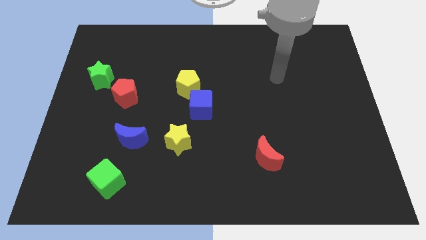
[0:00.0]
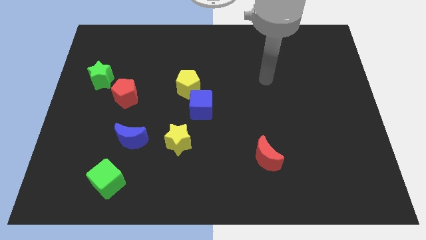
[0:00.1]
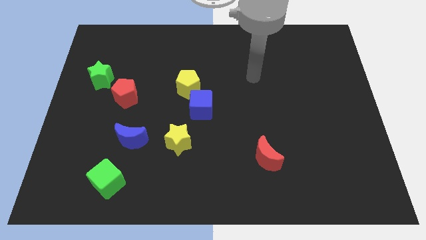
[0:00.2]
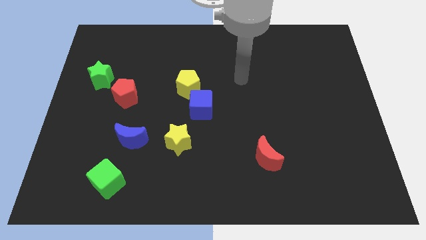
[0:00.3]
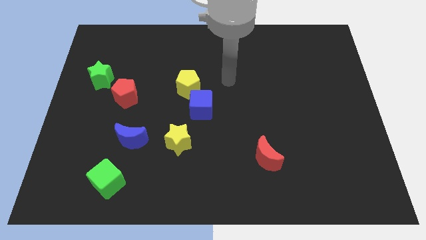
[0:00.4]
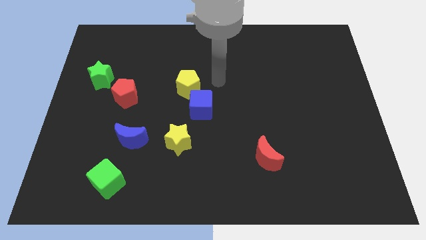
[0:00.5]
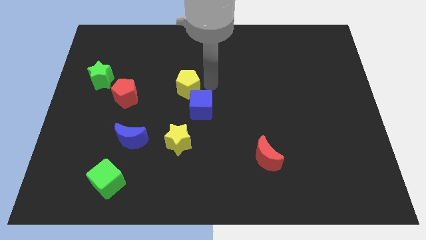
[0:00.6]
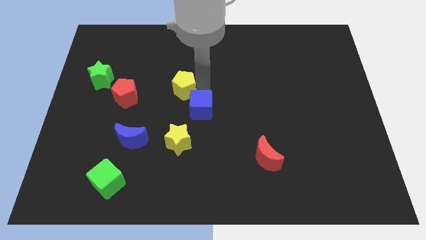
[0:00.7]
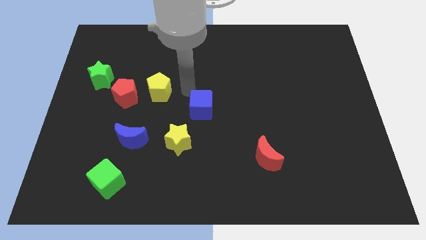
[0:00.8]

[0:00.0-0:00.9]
move the blue cube away from the yellow pentagon

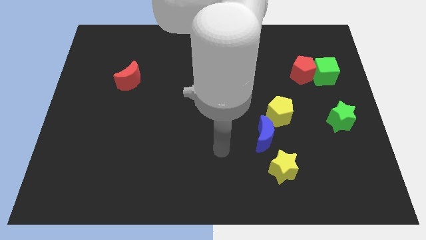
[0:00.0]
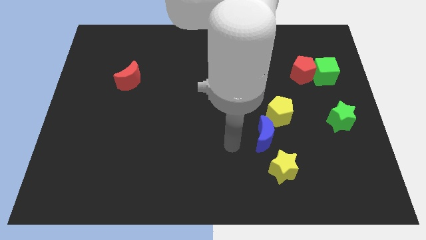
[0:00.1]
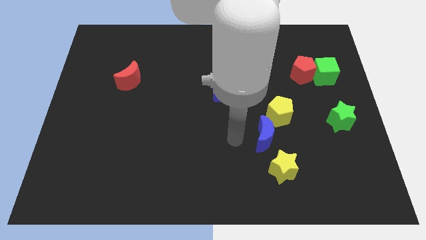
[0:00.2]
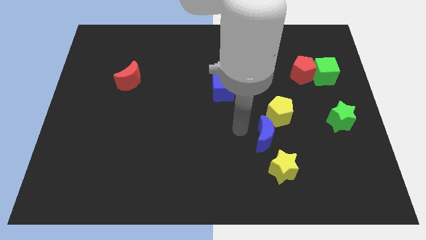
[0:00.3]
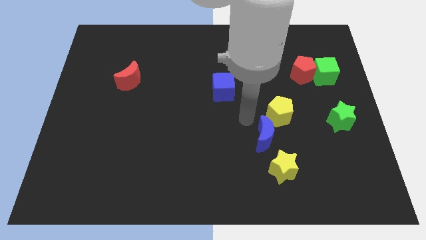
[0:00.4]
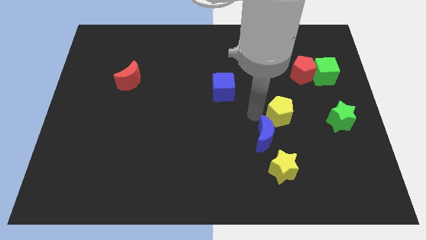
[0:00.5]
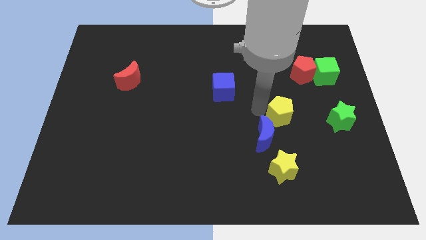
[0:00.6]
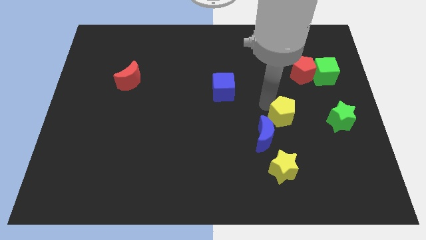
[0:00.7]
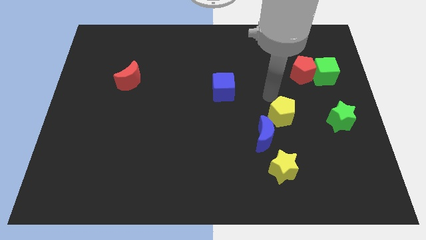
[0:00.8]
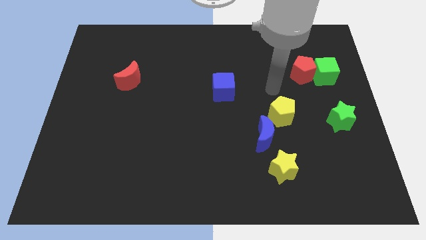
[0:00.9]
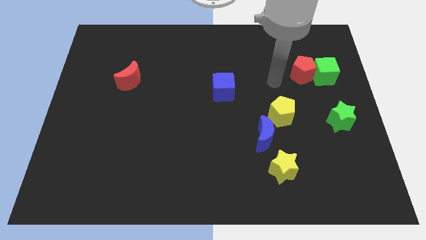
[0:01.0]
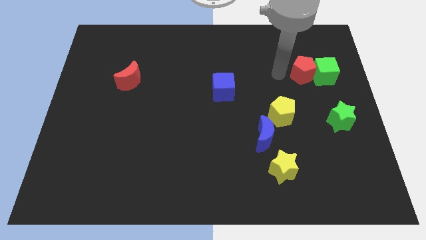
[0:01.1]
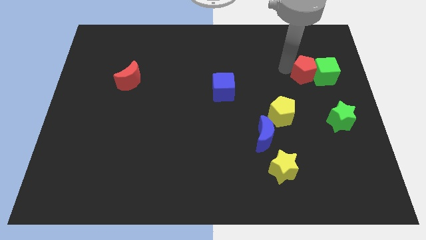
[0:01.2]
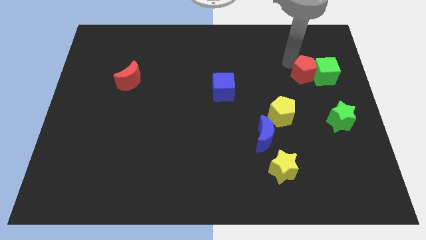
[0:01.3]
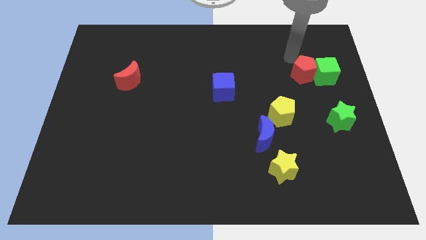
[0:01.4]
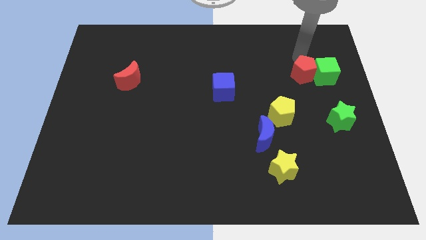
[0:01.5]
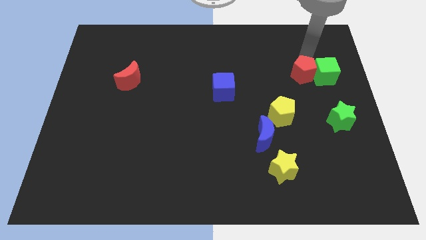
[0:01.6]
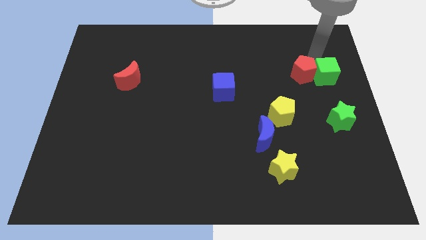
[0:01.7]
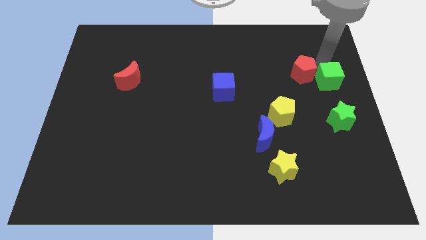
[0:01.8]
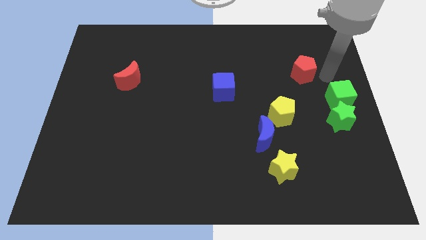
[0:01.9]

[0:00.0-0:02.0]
separate the red pentagon from the green cube

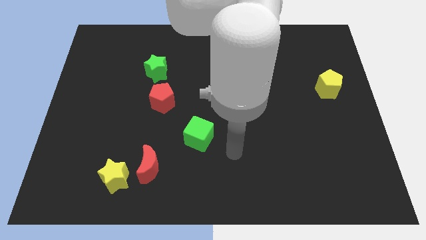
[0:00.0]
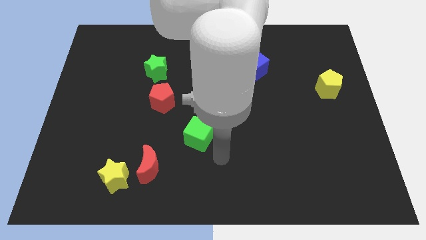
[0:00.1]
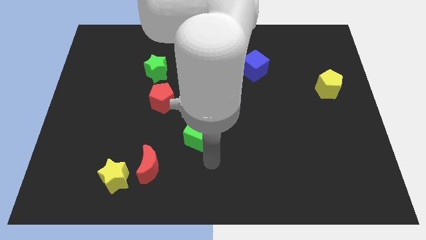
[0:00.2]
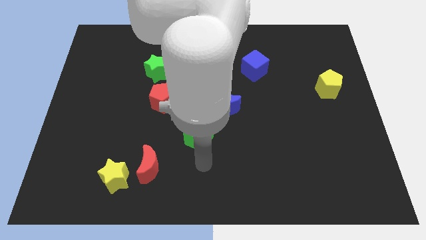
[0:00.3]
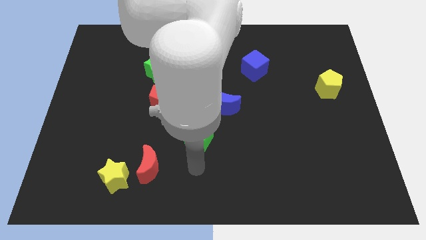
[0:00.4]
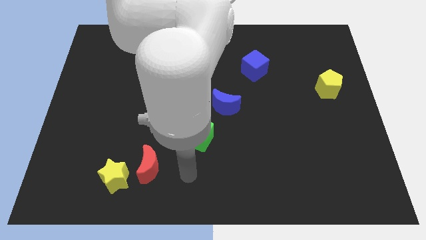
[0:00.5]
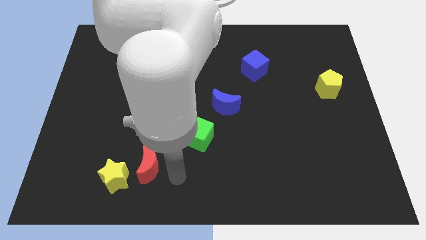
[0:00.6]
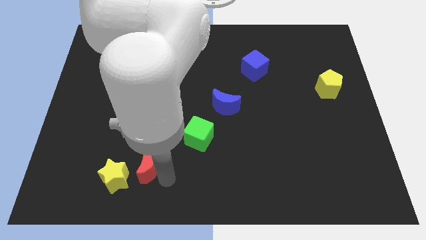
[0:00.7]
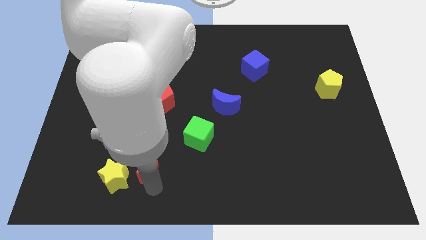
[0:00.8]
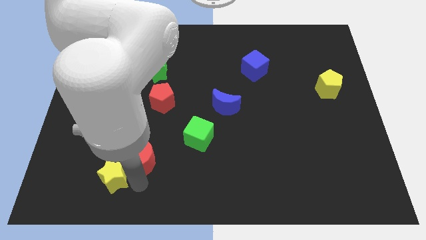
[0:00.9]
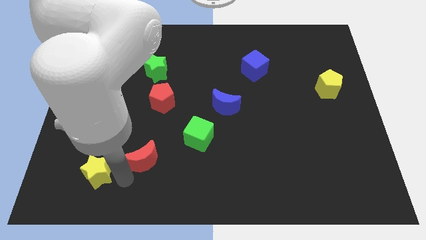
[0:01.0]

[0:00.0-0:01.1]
move the red moon away from the yellow star

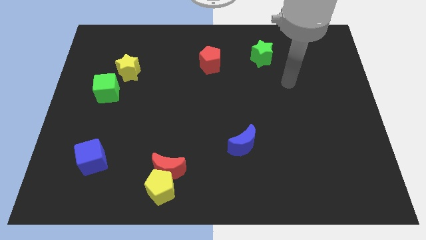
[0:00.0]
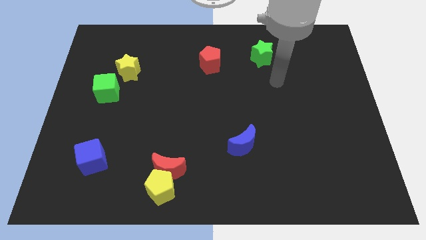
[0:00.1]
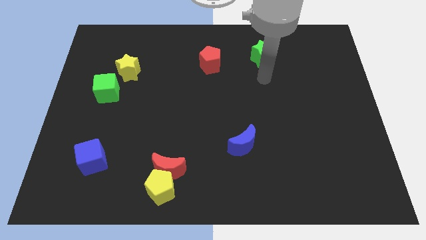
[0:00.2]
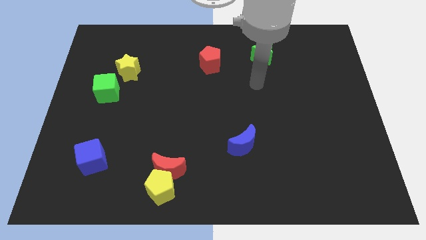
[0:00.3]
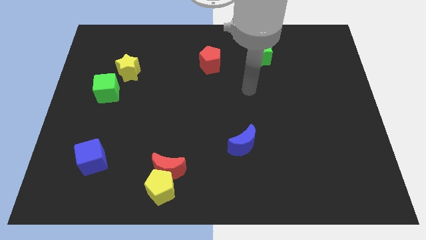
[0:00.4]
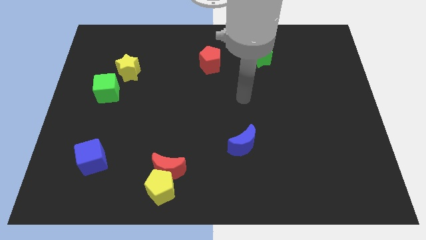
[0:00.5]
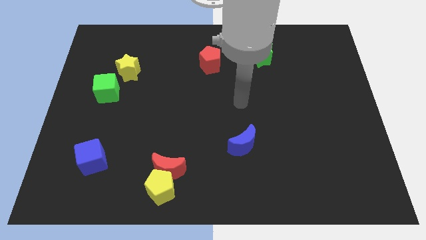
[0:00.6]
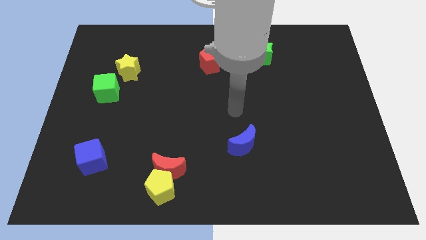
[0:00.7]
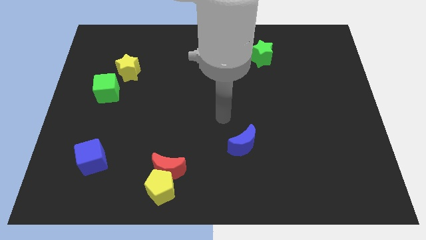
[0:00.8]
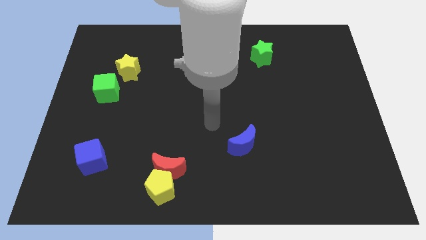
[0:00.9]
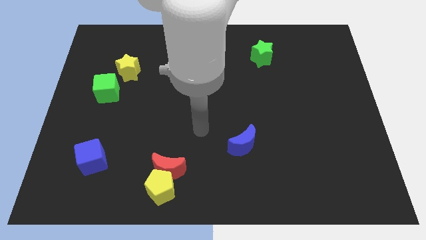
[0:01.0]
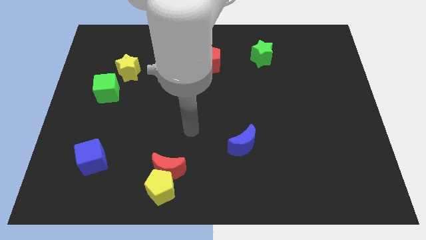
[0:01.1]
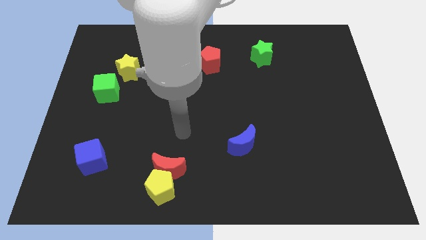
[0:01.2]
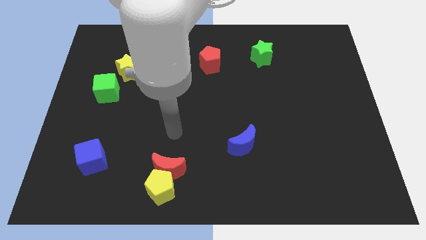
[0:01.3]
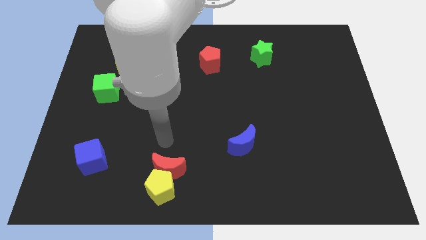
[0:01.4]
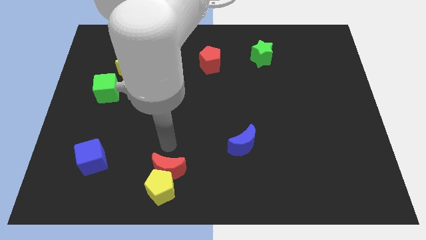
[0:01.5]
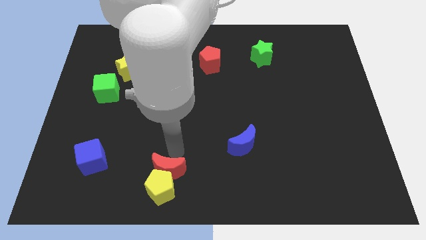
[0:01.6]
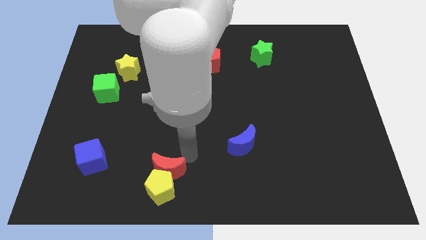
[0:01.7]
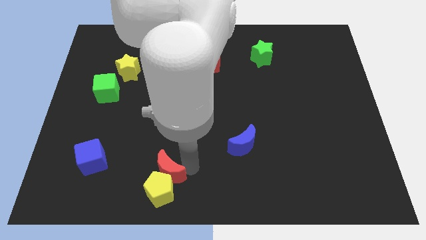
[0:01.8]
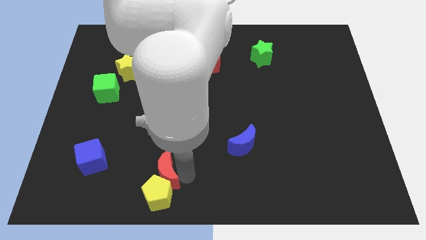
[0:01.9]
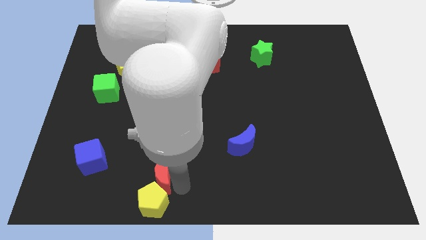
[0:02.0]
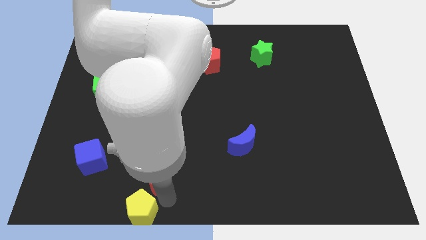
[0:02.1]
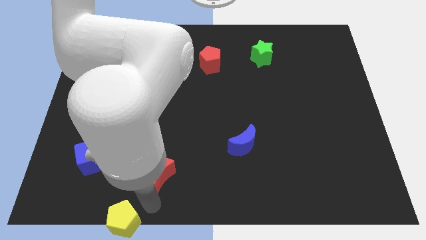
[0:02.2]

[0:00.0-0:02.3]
move the red moon away from the yellow pentagon

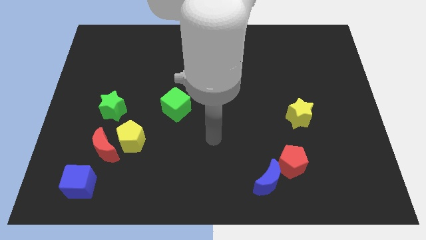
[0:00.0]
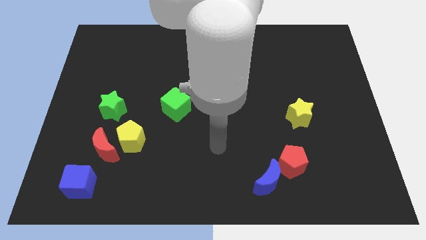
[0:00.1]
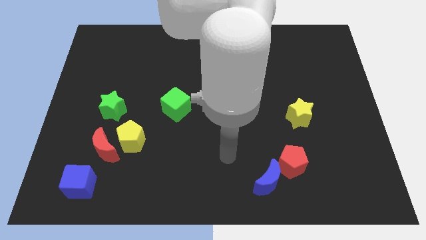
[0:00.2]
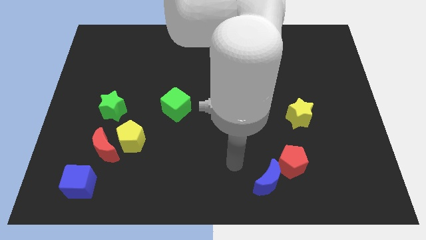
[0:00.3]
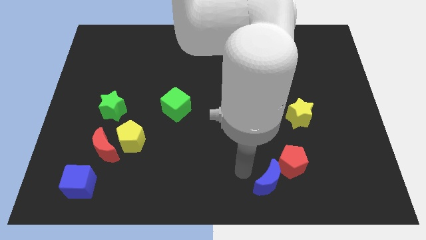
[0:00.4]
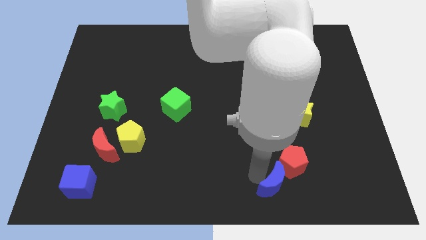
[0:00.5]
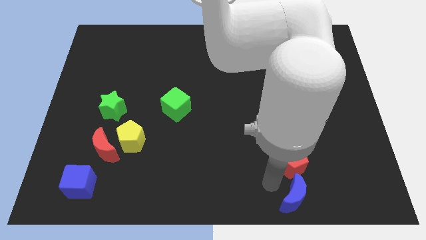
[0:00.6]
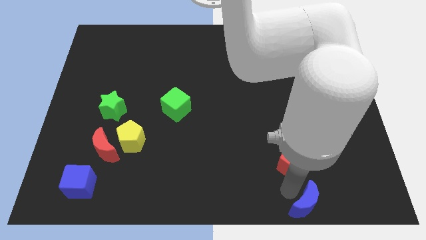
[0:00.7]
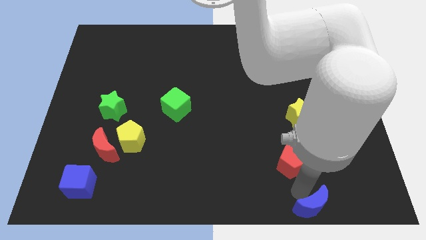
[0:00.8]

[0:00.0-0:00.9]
pull the red pentagon apart from the blue moon

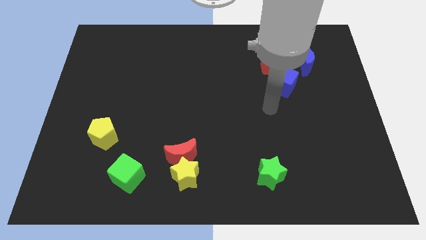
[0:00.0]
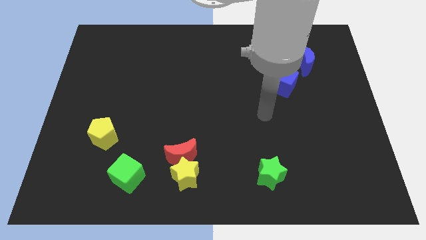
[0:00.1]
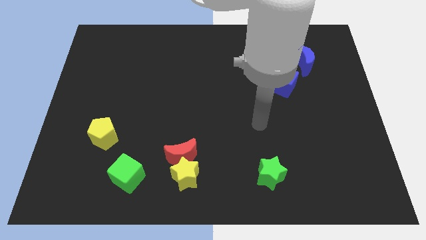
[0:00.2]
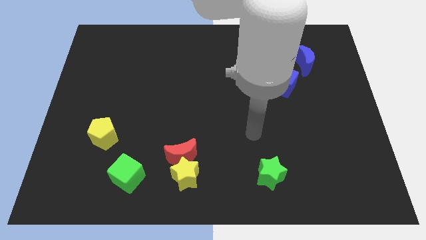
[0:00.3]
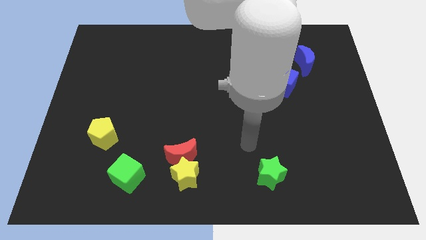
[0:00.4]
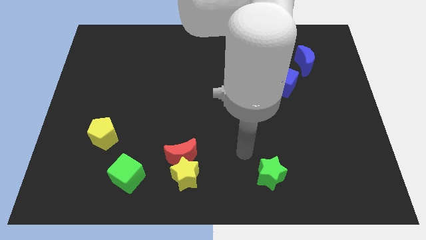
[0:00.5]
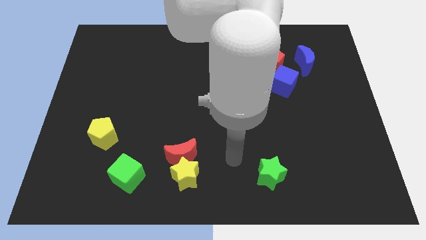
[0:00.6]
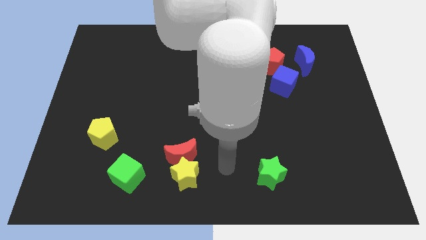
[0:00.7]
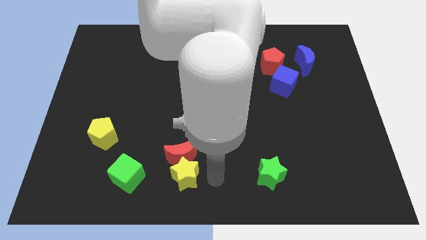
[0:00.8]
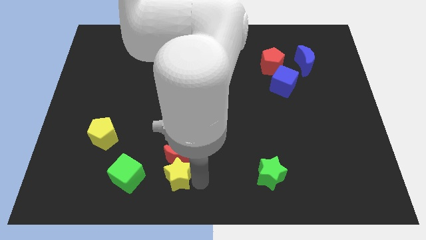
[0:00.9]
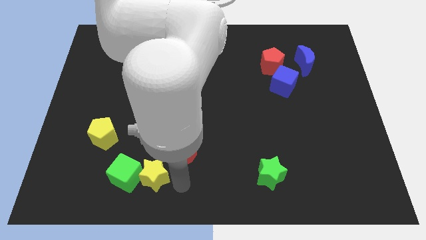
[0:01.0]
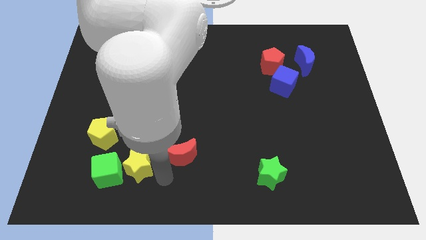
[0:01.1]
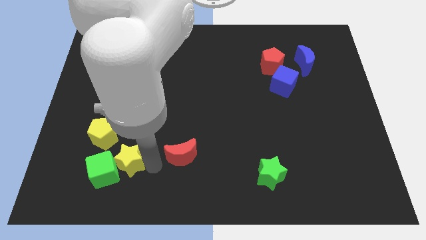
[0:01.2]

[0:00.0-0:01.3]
separate the red moon from the yellow star

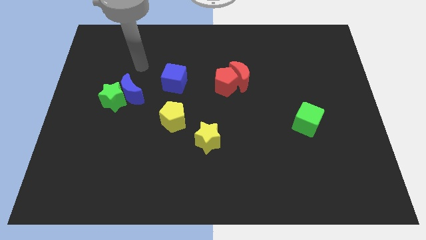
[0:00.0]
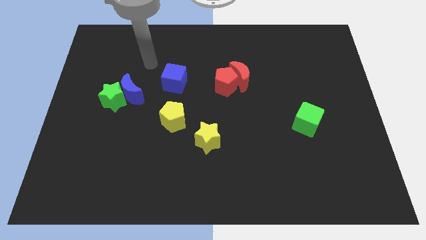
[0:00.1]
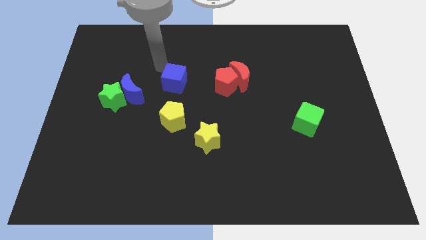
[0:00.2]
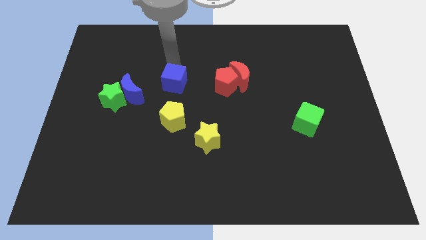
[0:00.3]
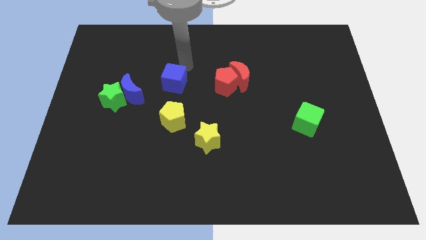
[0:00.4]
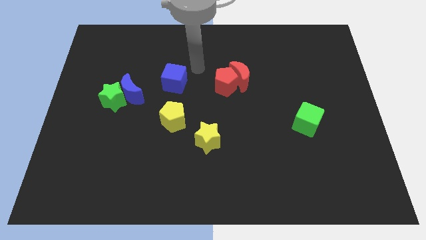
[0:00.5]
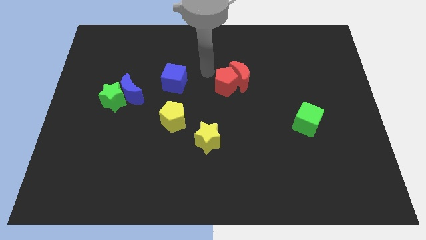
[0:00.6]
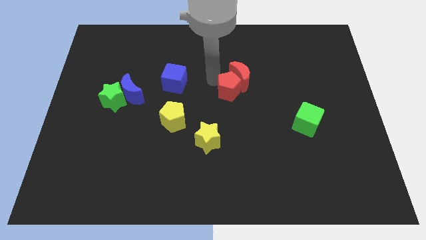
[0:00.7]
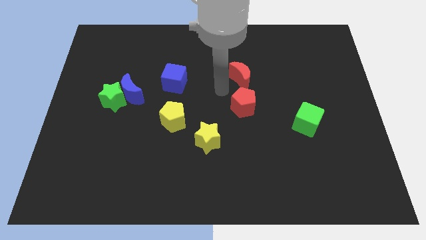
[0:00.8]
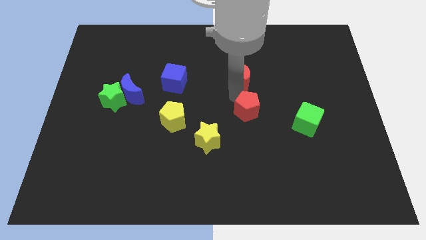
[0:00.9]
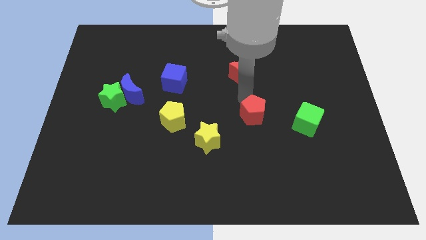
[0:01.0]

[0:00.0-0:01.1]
move the red moon away from the red pentagon
